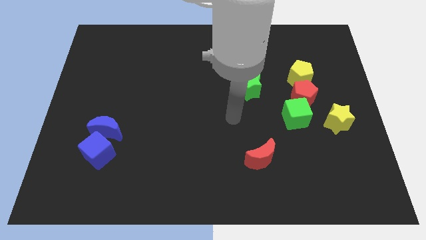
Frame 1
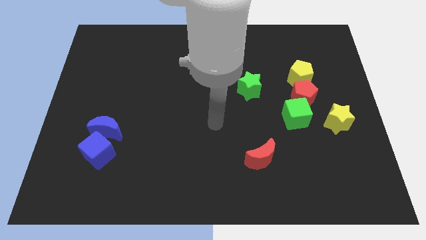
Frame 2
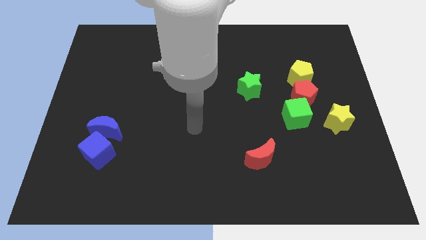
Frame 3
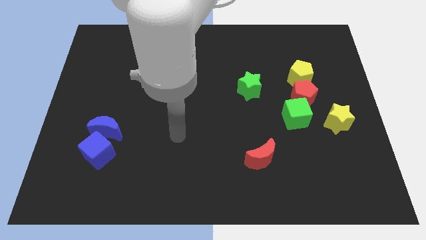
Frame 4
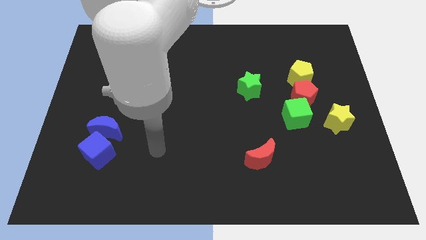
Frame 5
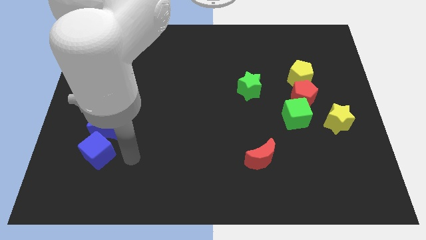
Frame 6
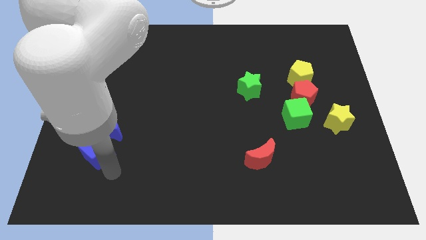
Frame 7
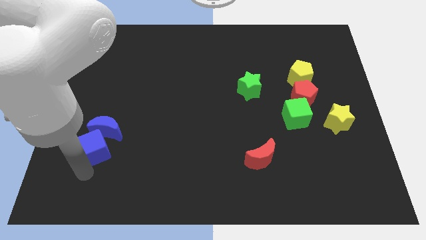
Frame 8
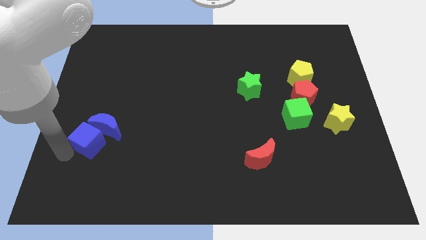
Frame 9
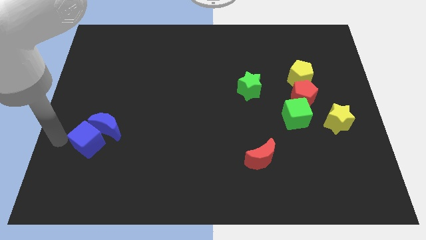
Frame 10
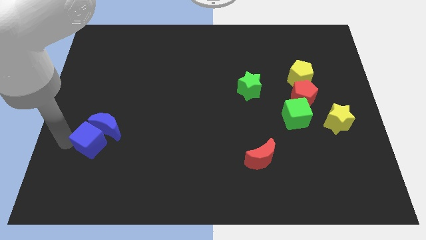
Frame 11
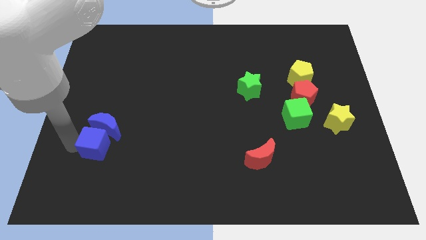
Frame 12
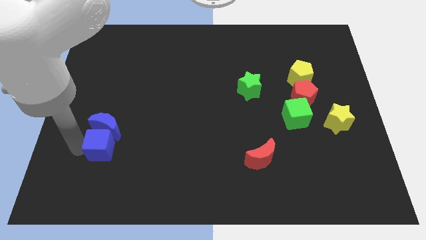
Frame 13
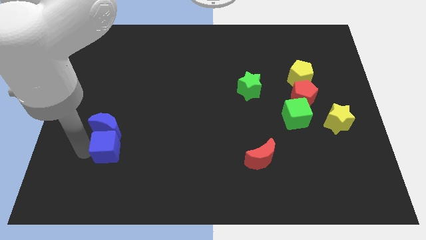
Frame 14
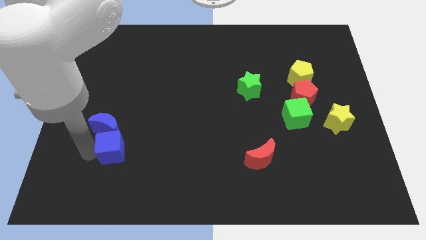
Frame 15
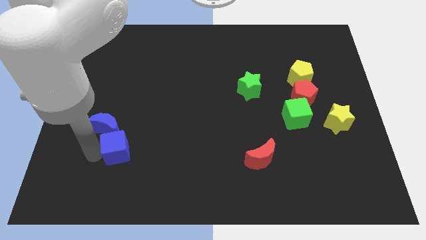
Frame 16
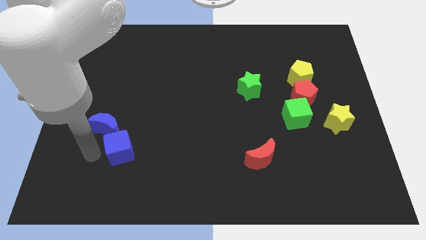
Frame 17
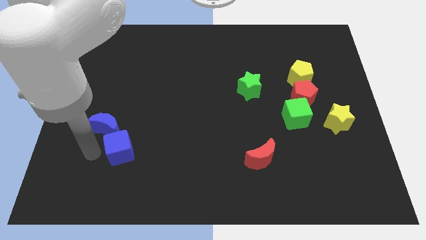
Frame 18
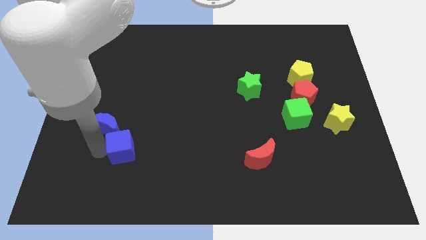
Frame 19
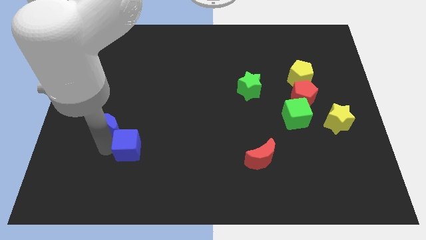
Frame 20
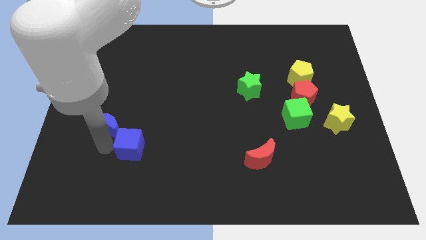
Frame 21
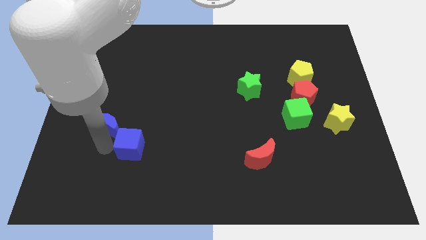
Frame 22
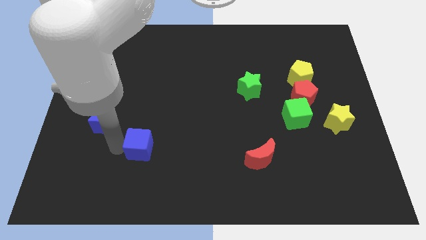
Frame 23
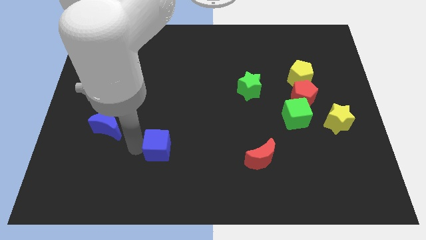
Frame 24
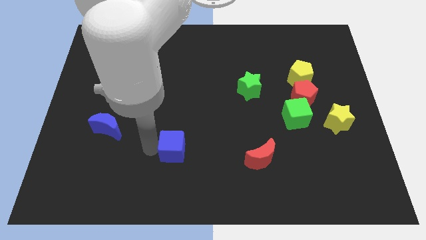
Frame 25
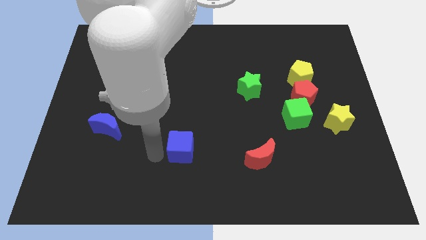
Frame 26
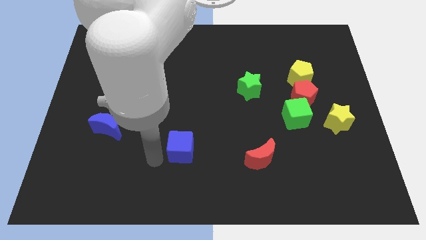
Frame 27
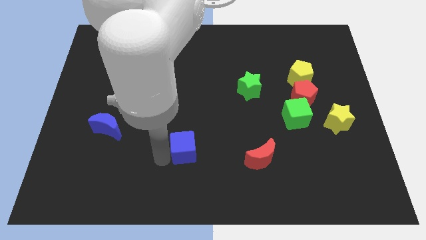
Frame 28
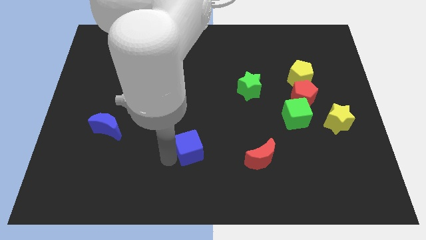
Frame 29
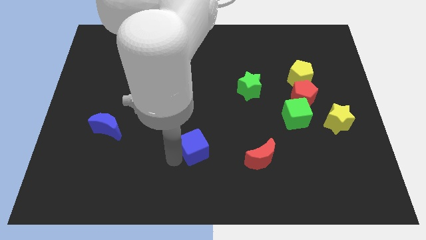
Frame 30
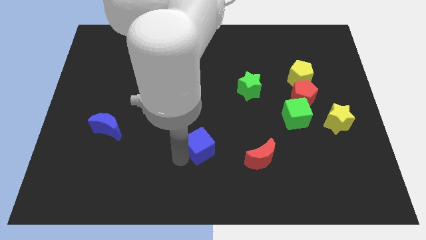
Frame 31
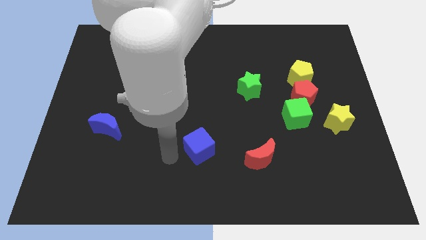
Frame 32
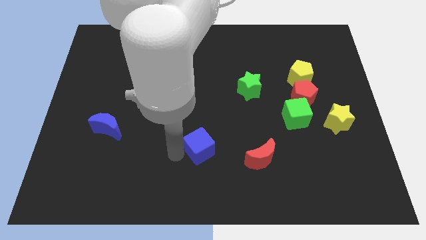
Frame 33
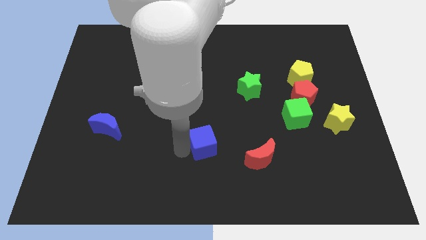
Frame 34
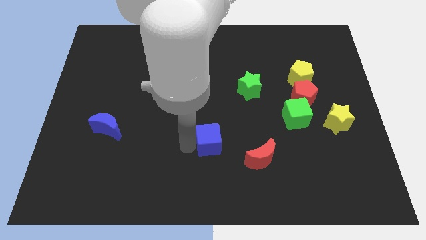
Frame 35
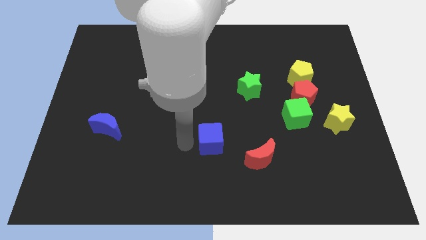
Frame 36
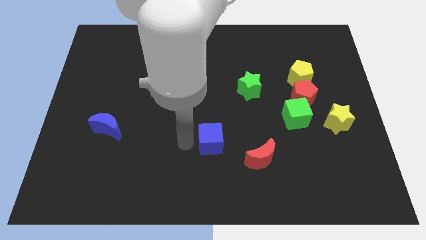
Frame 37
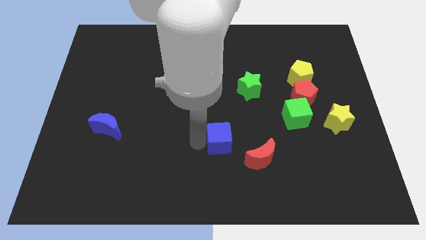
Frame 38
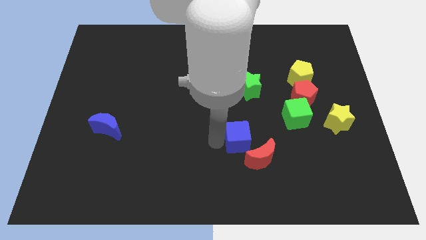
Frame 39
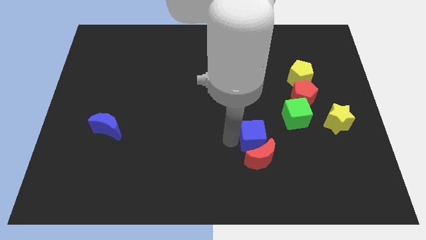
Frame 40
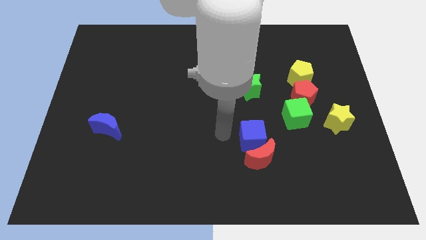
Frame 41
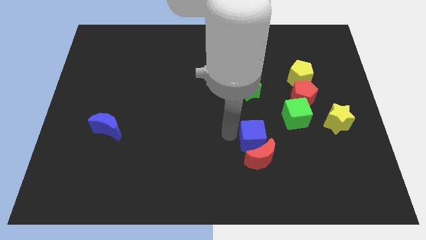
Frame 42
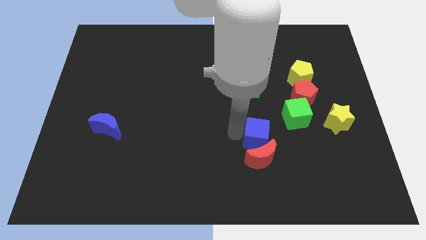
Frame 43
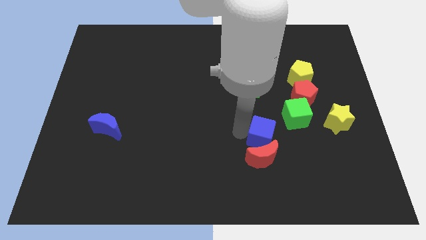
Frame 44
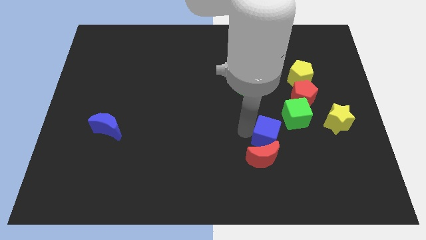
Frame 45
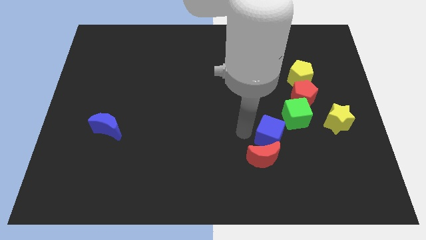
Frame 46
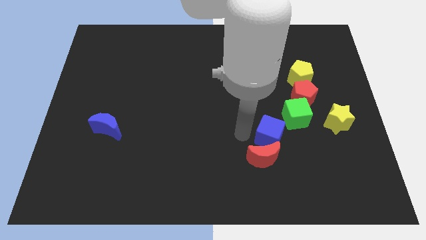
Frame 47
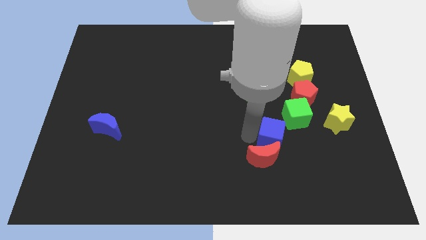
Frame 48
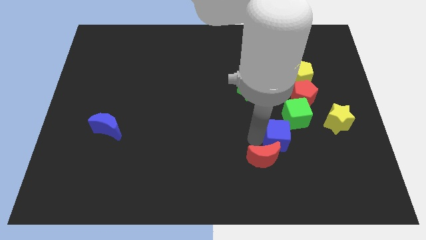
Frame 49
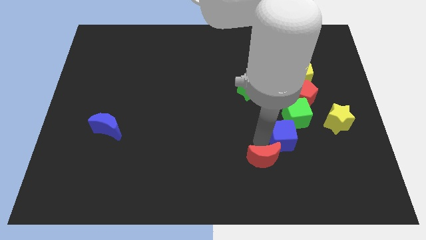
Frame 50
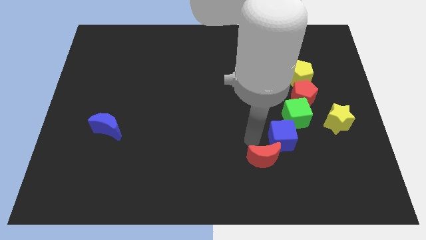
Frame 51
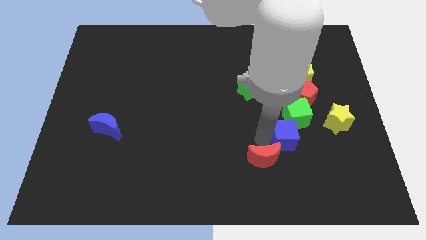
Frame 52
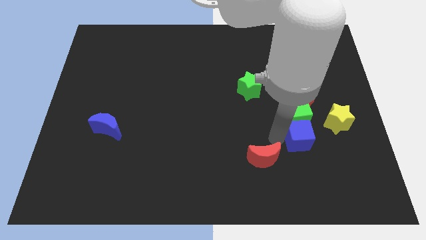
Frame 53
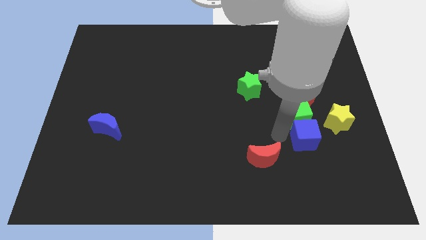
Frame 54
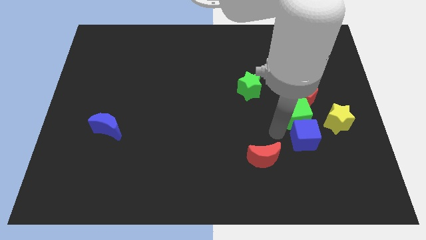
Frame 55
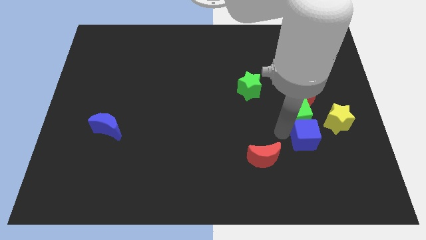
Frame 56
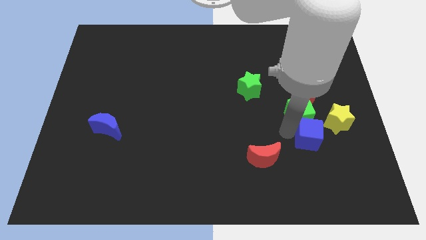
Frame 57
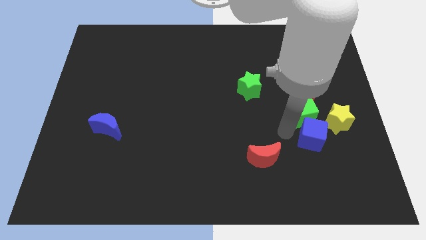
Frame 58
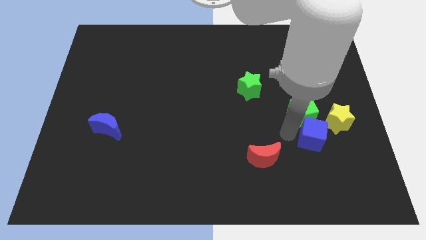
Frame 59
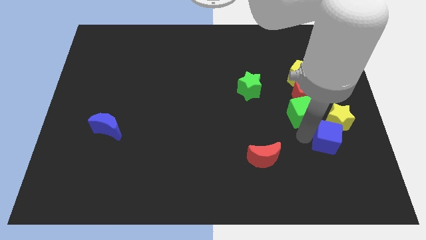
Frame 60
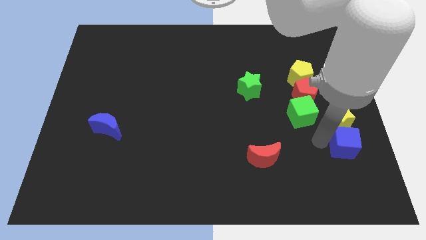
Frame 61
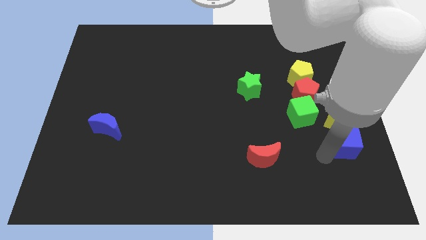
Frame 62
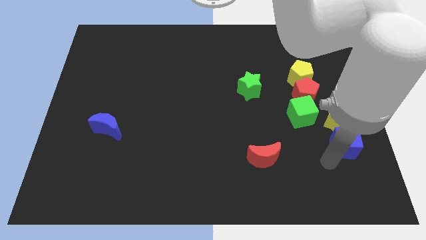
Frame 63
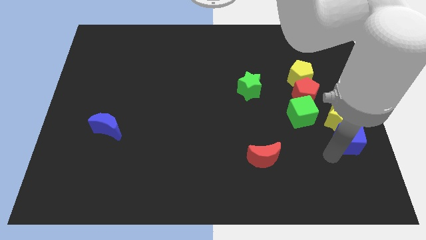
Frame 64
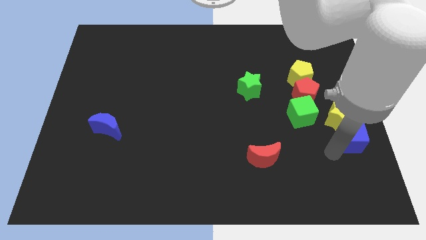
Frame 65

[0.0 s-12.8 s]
slide the blue cube to the right side

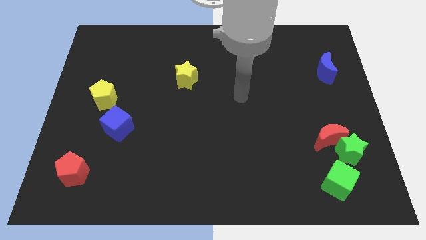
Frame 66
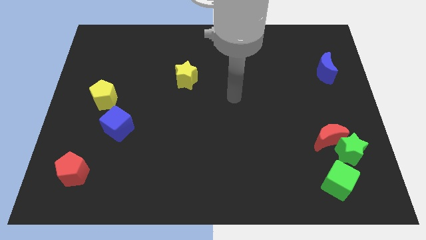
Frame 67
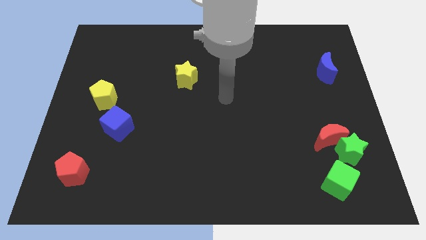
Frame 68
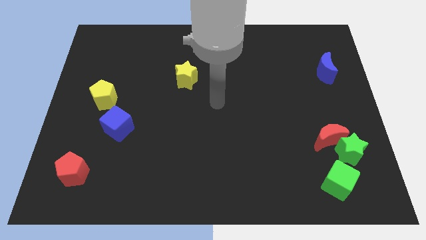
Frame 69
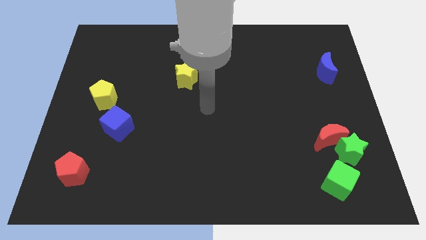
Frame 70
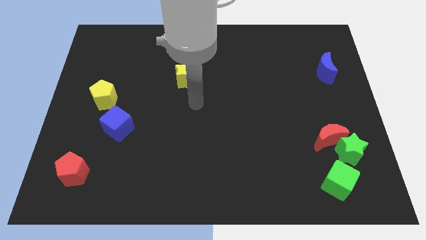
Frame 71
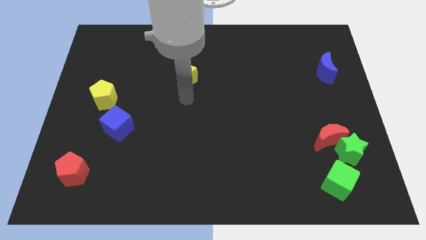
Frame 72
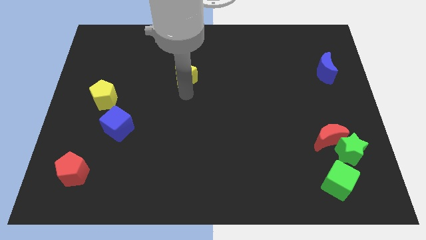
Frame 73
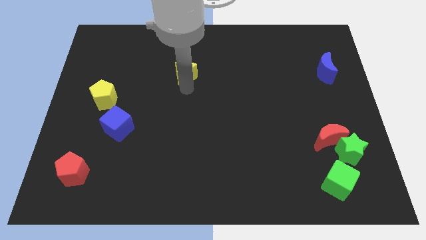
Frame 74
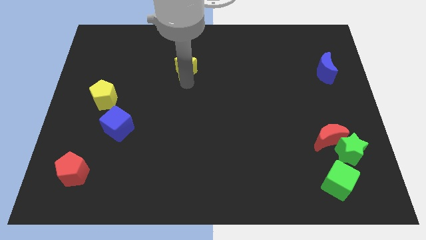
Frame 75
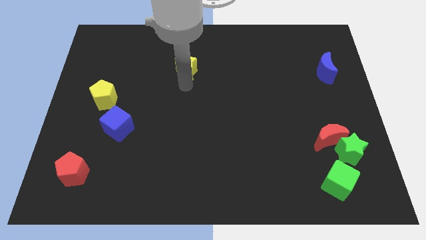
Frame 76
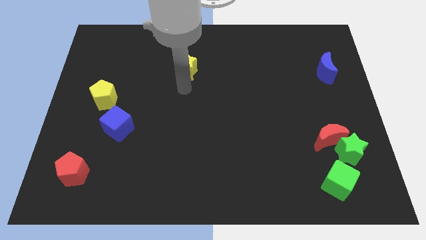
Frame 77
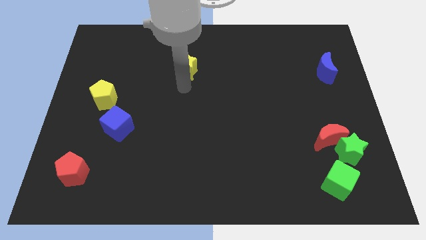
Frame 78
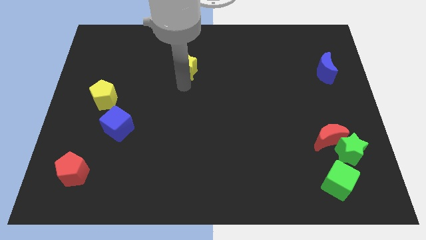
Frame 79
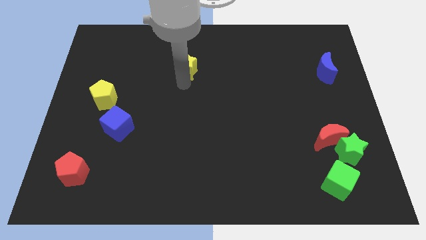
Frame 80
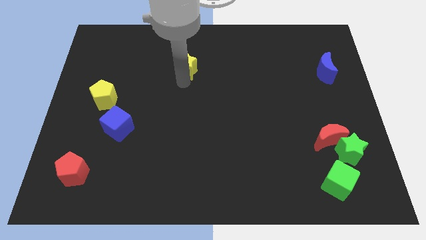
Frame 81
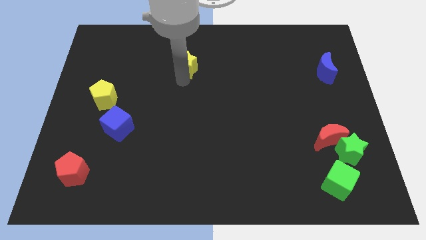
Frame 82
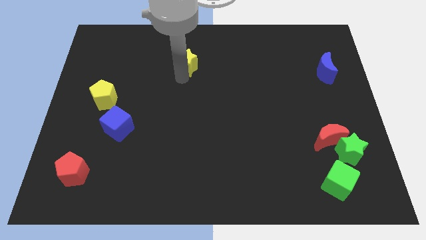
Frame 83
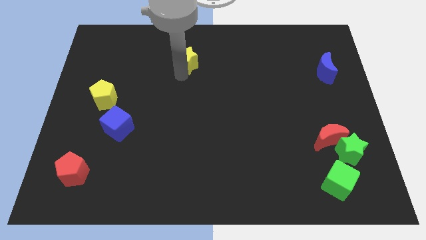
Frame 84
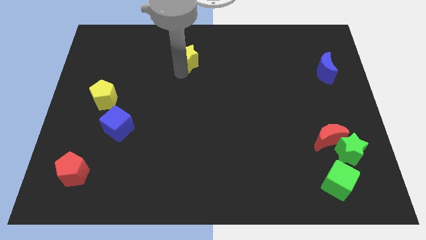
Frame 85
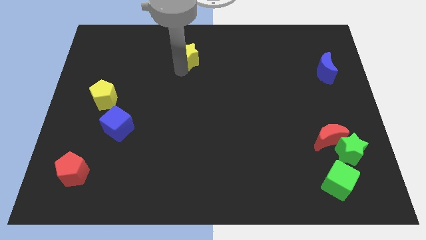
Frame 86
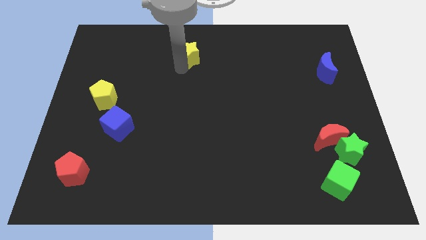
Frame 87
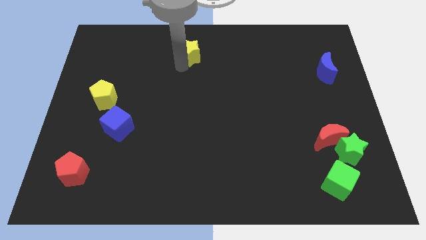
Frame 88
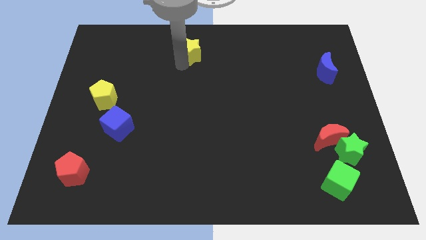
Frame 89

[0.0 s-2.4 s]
slide the yellow star to the top
